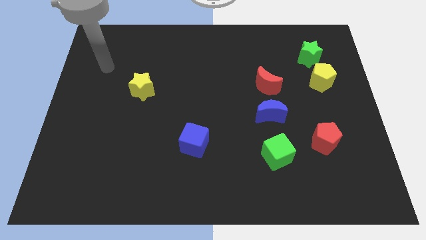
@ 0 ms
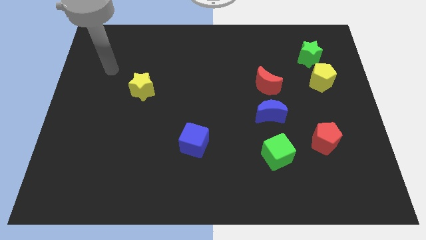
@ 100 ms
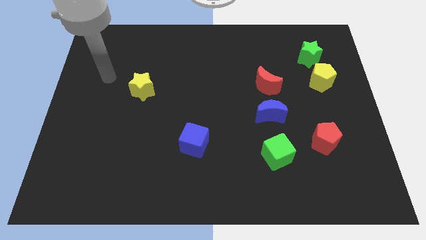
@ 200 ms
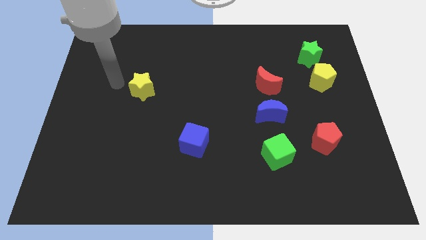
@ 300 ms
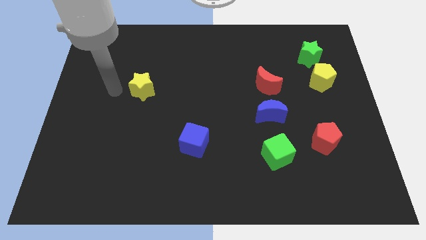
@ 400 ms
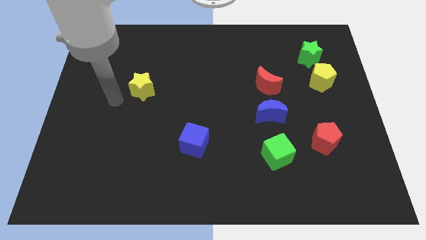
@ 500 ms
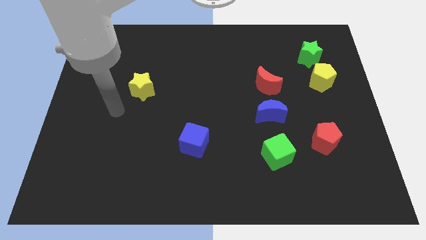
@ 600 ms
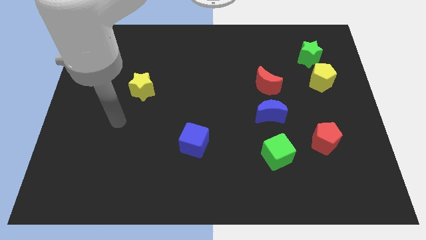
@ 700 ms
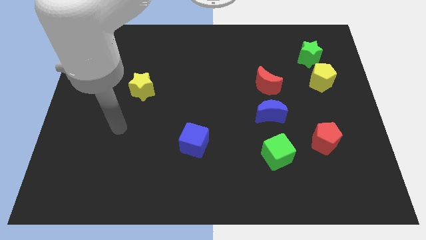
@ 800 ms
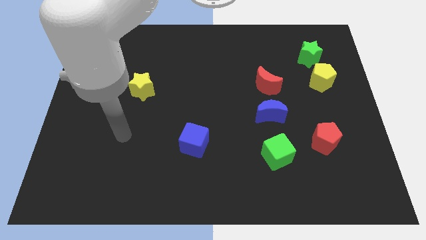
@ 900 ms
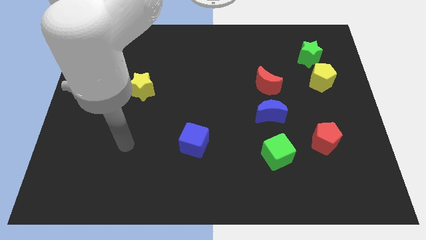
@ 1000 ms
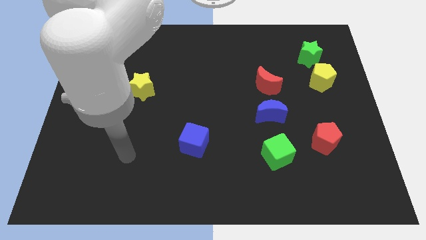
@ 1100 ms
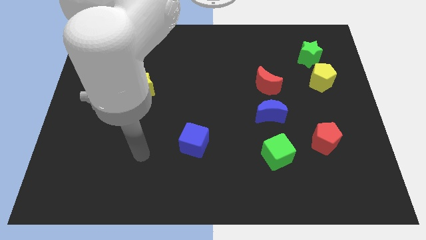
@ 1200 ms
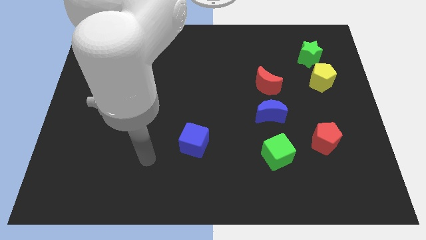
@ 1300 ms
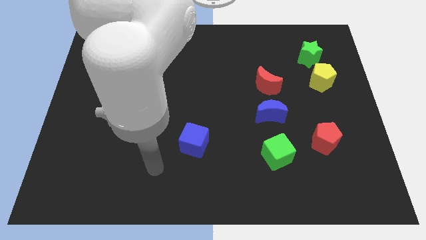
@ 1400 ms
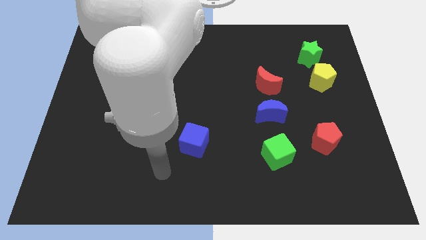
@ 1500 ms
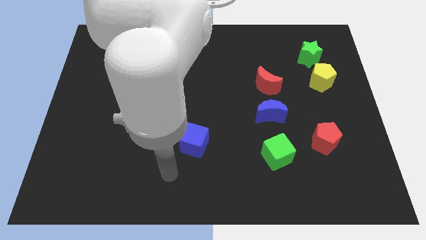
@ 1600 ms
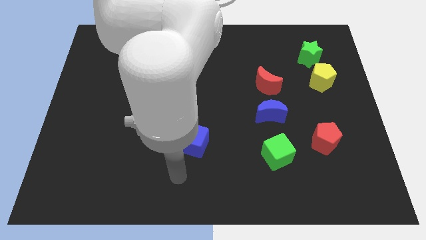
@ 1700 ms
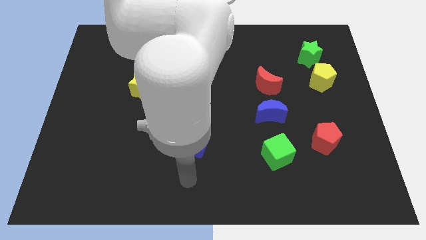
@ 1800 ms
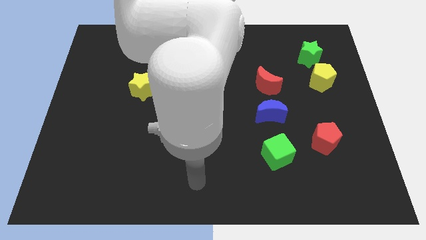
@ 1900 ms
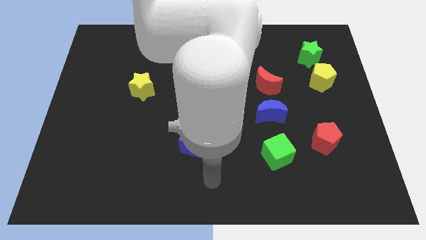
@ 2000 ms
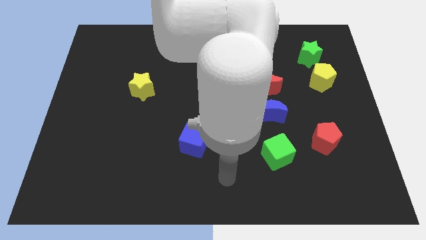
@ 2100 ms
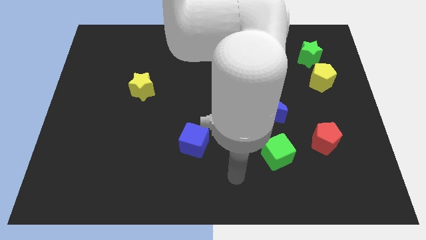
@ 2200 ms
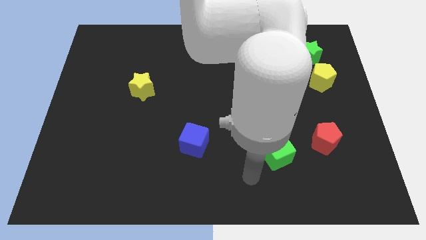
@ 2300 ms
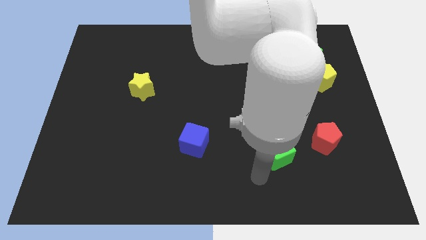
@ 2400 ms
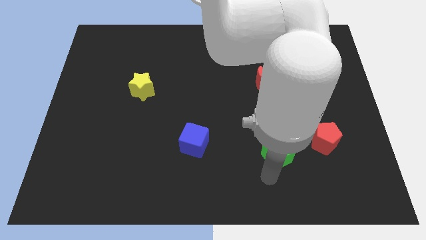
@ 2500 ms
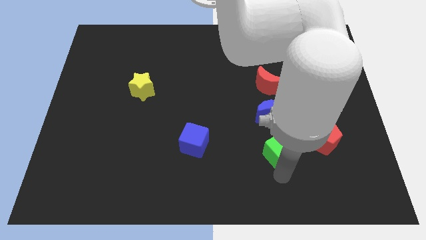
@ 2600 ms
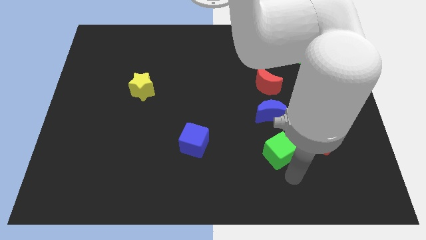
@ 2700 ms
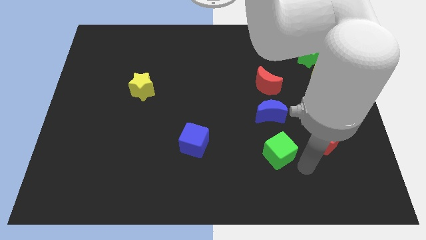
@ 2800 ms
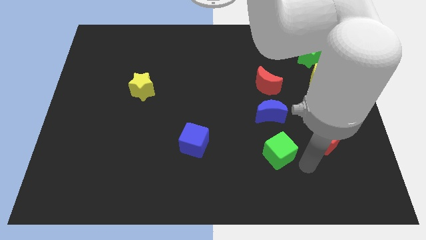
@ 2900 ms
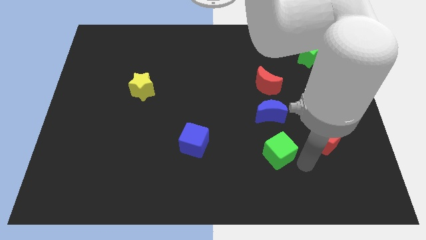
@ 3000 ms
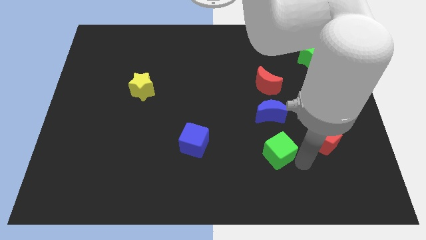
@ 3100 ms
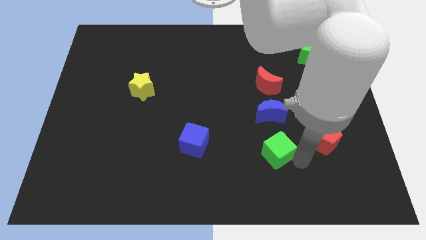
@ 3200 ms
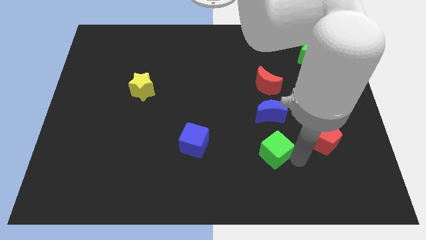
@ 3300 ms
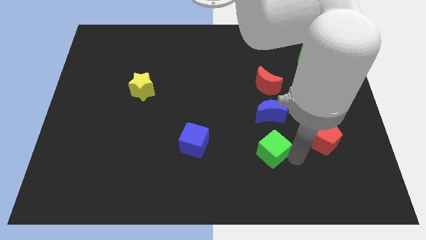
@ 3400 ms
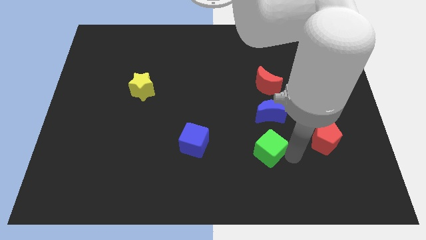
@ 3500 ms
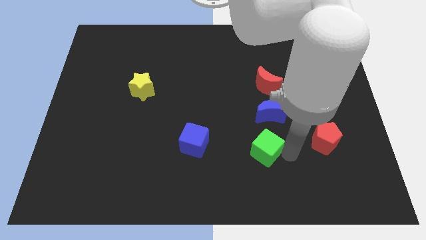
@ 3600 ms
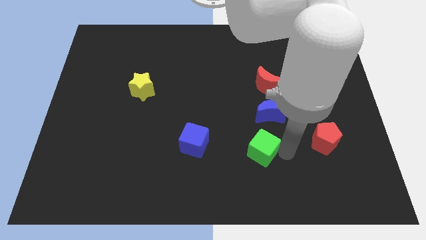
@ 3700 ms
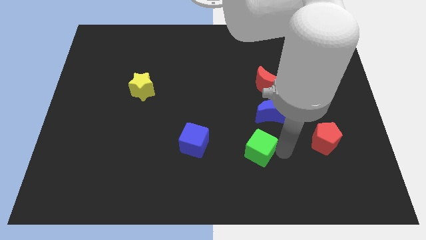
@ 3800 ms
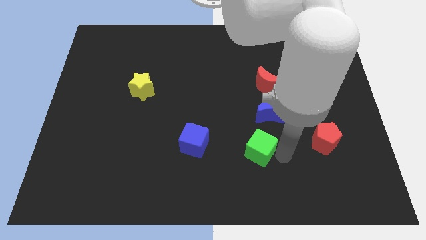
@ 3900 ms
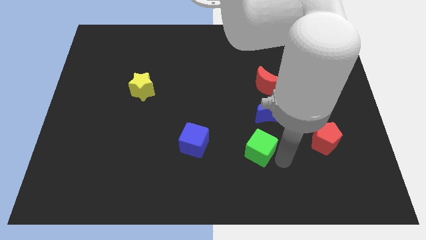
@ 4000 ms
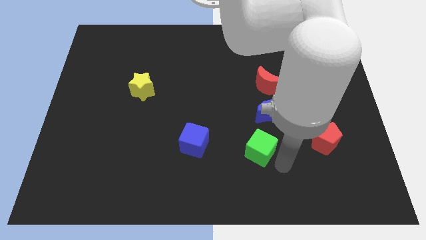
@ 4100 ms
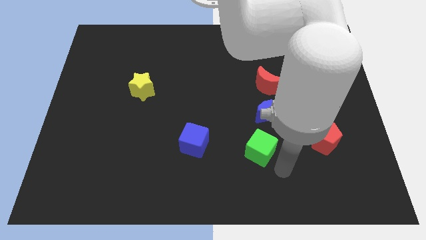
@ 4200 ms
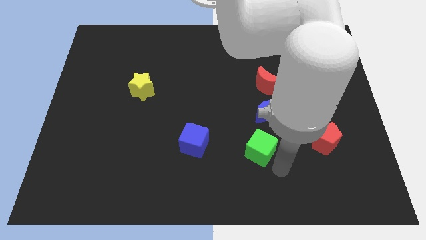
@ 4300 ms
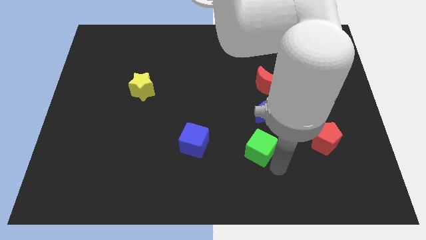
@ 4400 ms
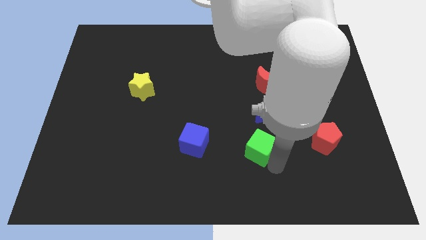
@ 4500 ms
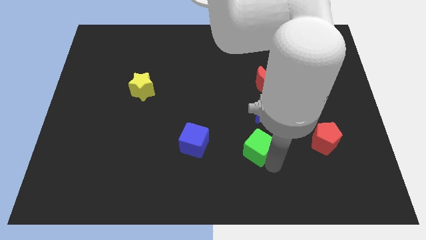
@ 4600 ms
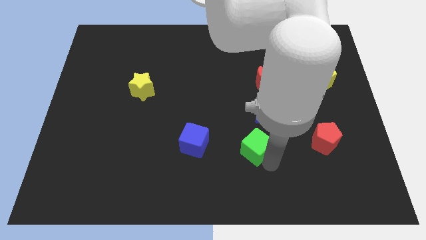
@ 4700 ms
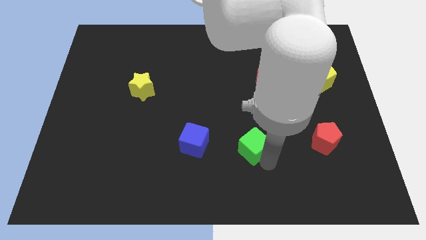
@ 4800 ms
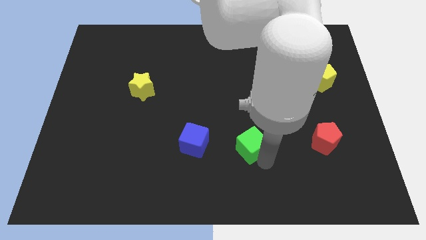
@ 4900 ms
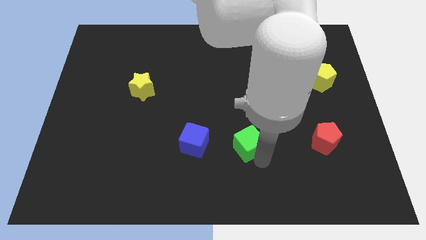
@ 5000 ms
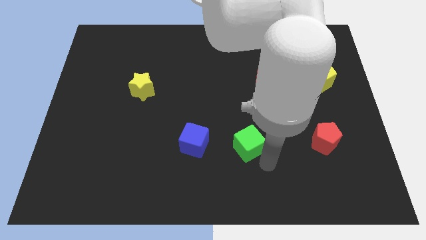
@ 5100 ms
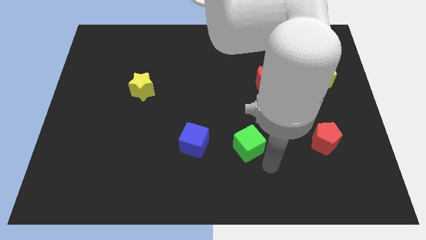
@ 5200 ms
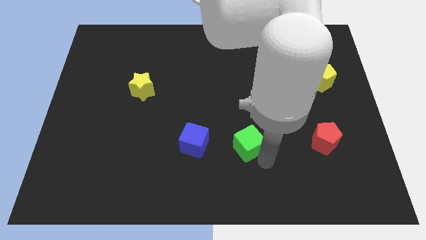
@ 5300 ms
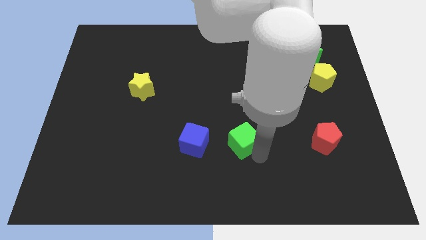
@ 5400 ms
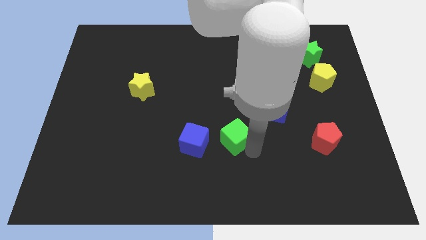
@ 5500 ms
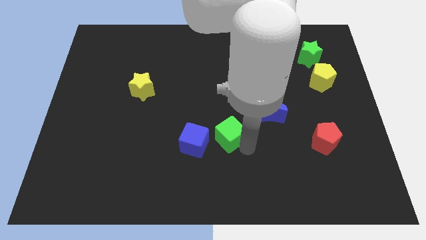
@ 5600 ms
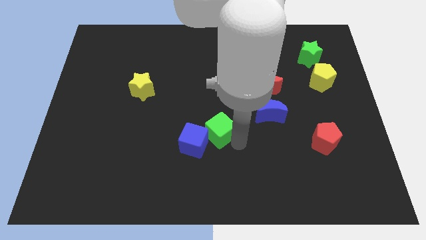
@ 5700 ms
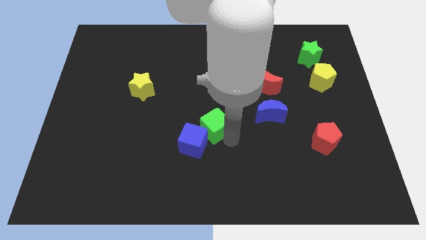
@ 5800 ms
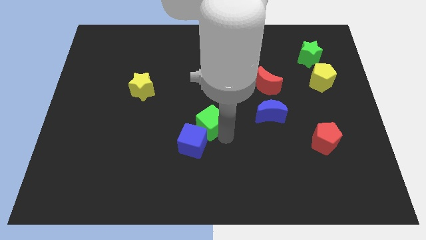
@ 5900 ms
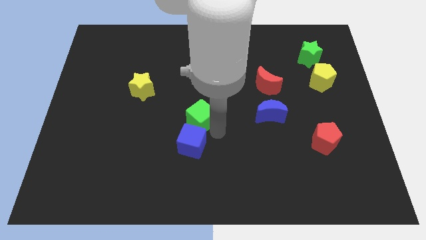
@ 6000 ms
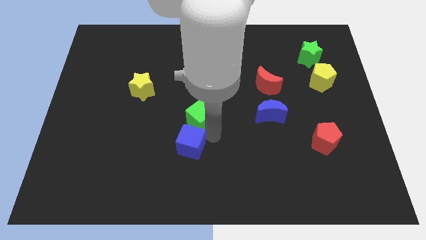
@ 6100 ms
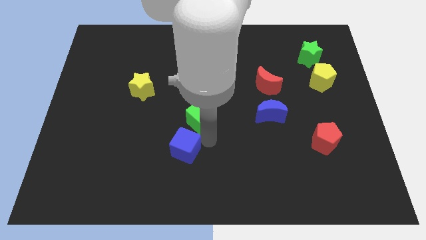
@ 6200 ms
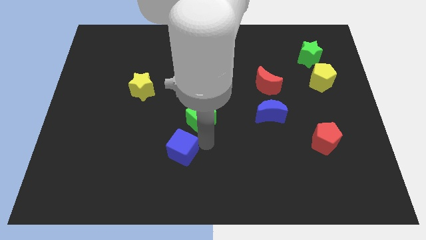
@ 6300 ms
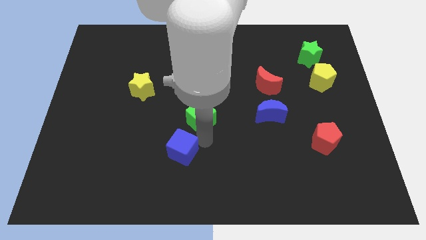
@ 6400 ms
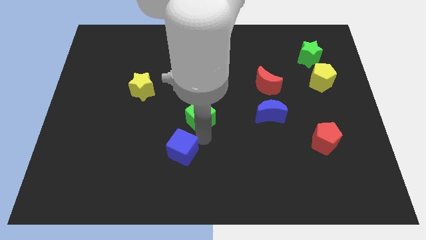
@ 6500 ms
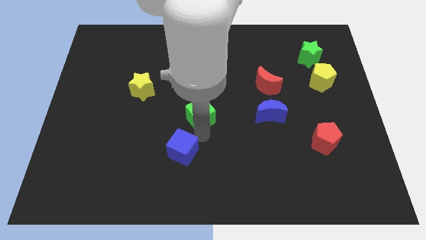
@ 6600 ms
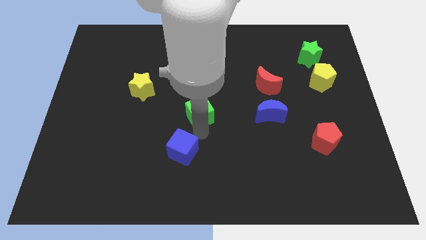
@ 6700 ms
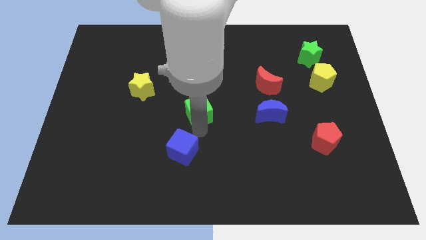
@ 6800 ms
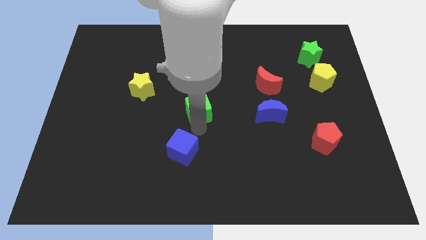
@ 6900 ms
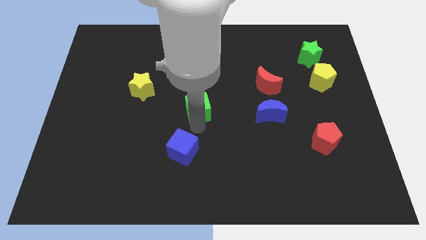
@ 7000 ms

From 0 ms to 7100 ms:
move the green cube upwards and to the left diagonally

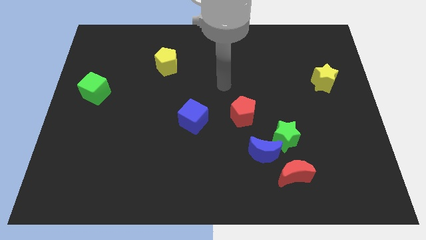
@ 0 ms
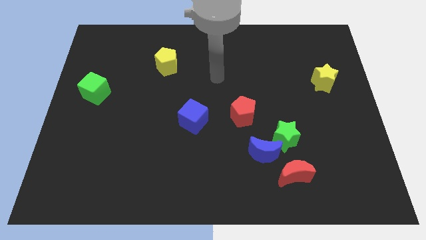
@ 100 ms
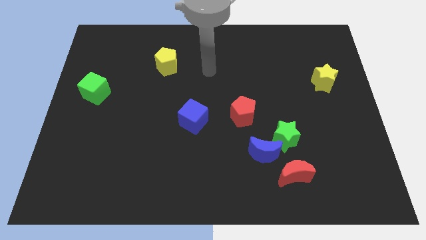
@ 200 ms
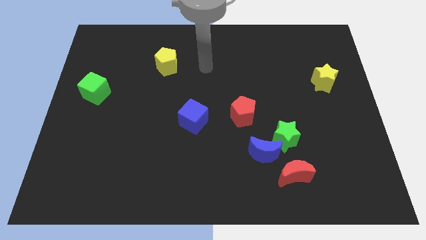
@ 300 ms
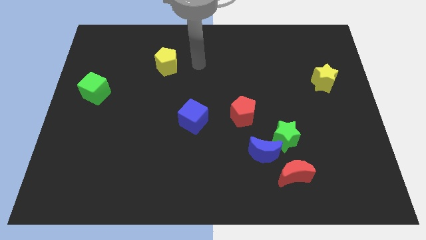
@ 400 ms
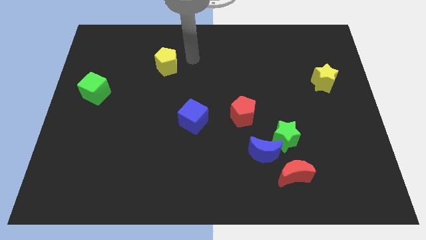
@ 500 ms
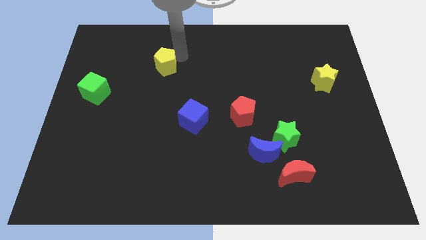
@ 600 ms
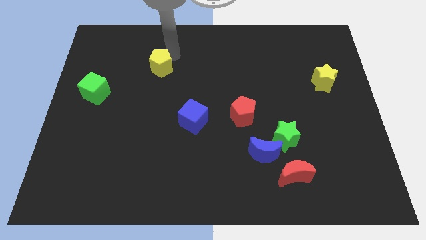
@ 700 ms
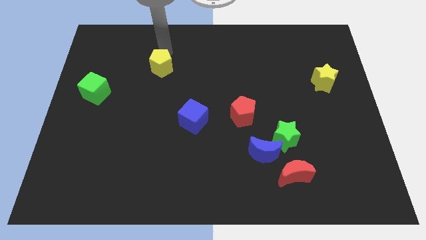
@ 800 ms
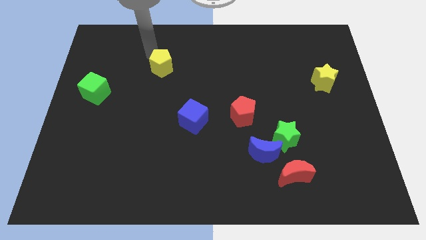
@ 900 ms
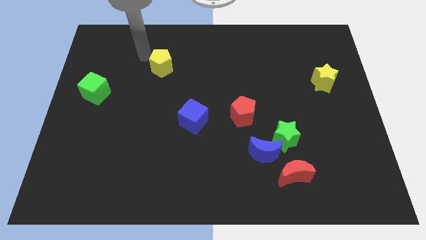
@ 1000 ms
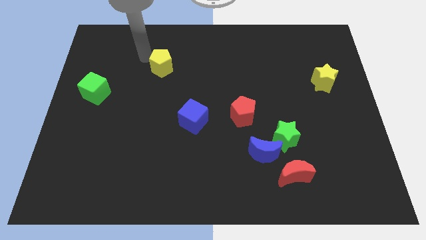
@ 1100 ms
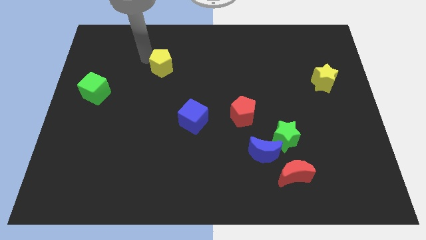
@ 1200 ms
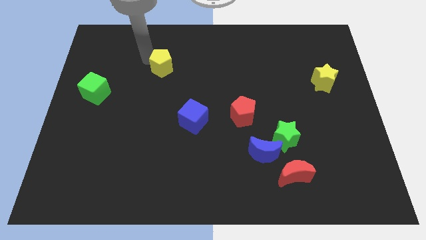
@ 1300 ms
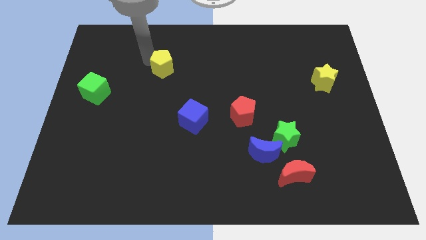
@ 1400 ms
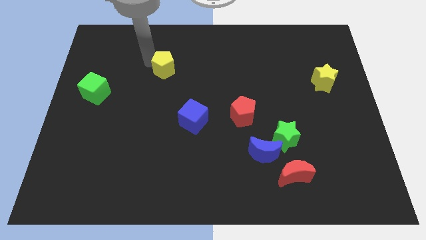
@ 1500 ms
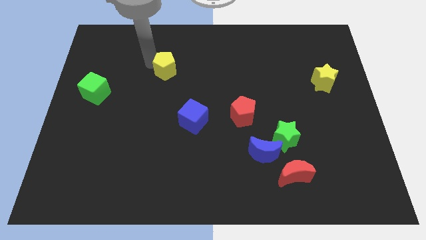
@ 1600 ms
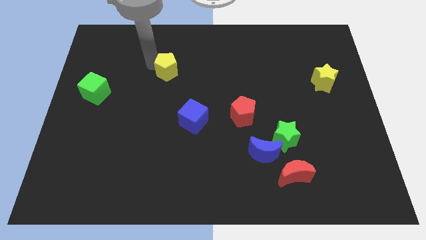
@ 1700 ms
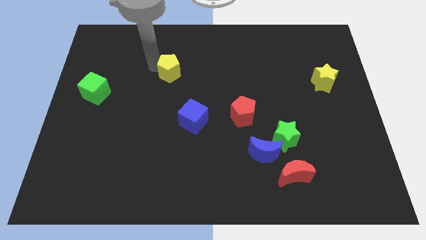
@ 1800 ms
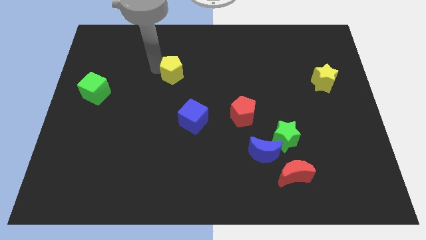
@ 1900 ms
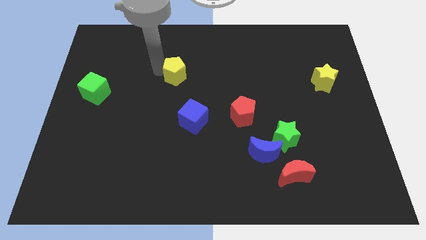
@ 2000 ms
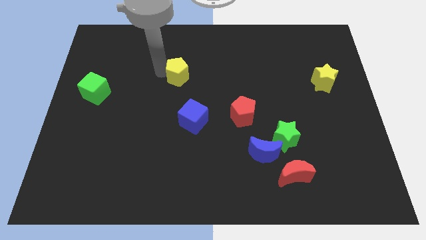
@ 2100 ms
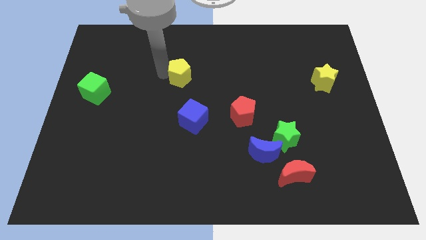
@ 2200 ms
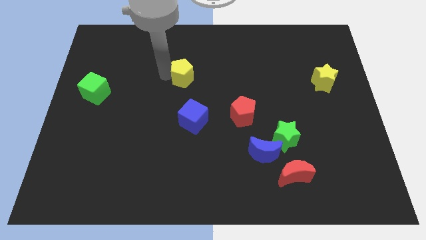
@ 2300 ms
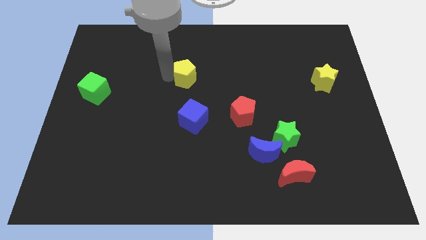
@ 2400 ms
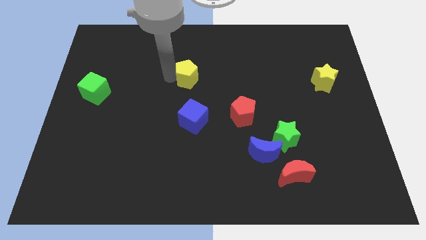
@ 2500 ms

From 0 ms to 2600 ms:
slide the yellow pentagon diagonally down and to the right a bit
